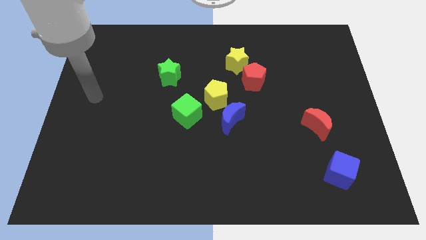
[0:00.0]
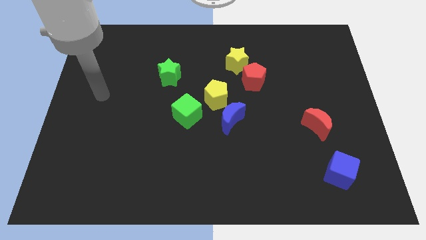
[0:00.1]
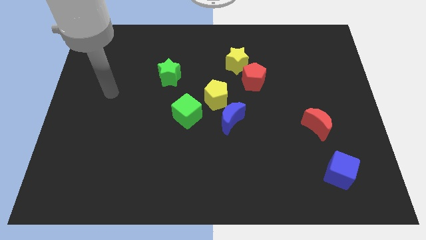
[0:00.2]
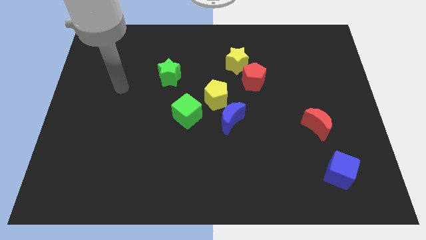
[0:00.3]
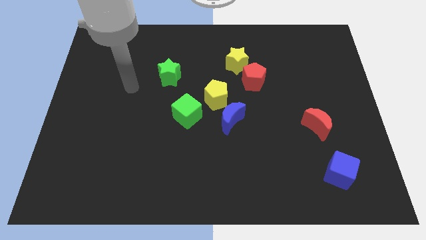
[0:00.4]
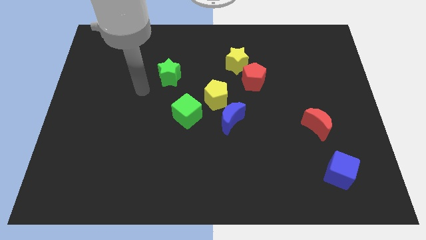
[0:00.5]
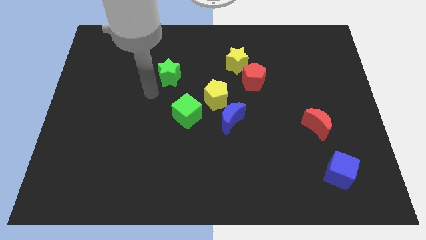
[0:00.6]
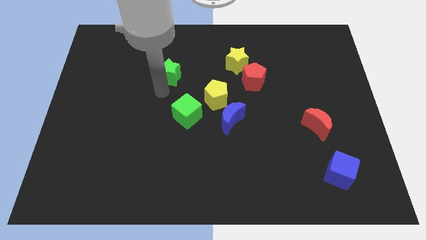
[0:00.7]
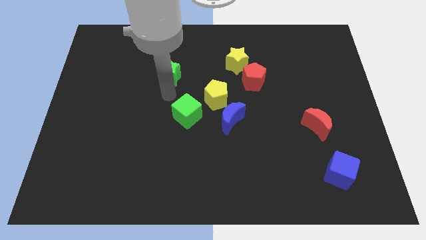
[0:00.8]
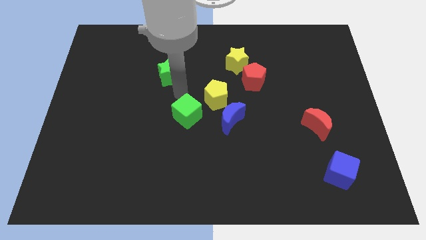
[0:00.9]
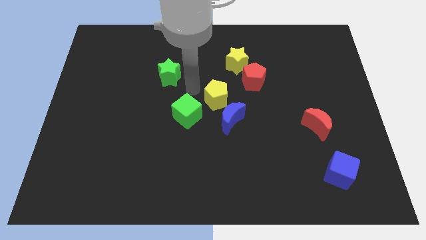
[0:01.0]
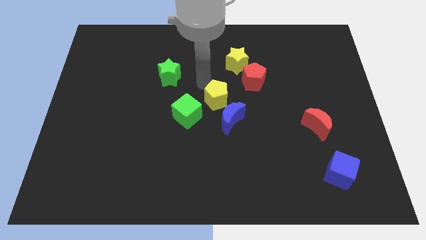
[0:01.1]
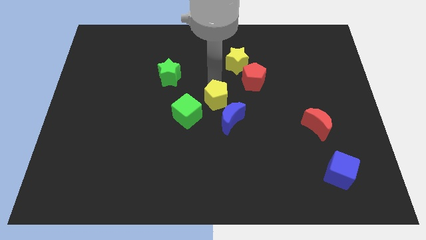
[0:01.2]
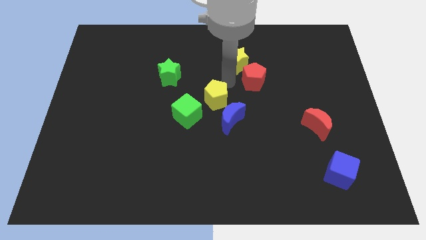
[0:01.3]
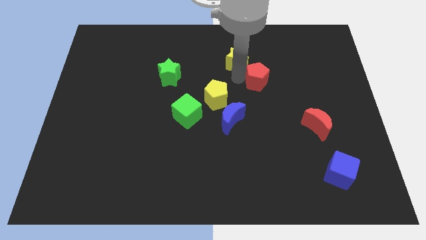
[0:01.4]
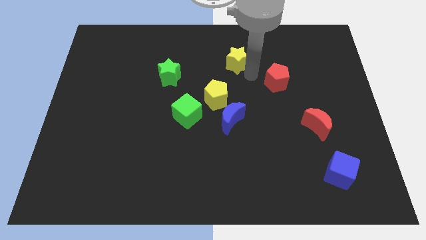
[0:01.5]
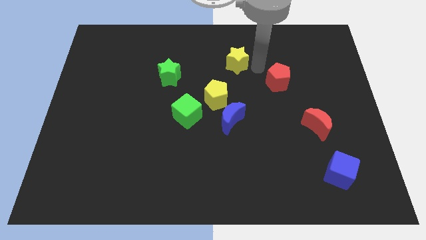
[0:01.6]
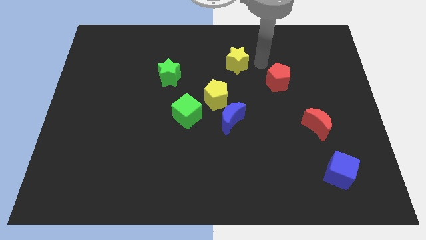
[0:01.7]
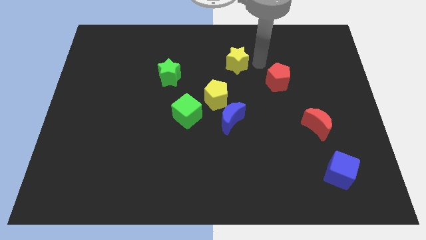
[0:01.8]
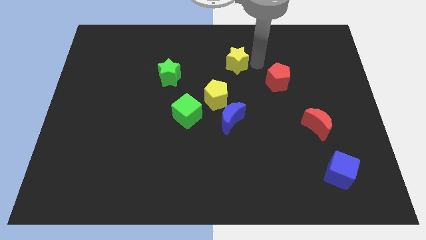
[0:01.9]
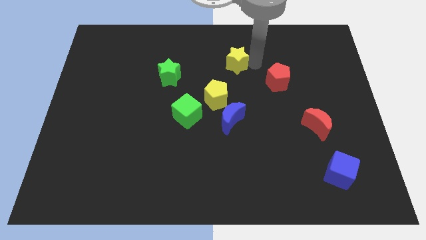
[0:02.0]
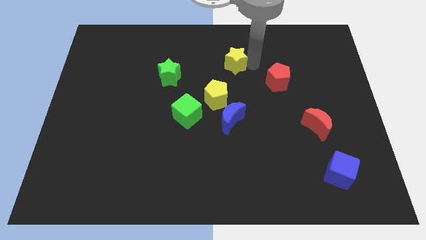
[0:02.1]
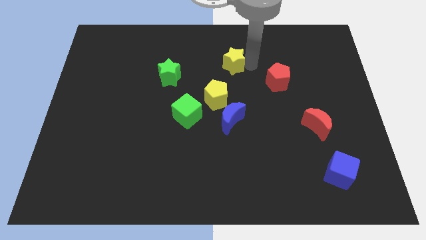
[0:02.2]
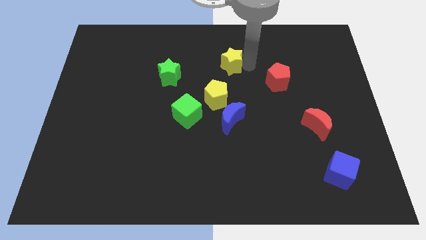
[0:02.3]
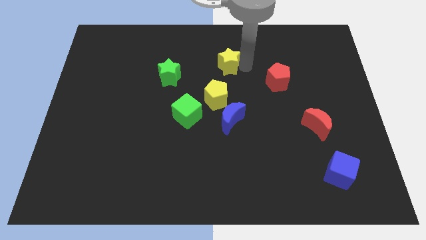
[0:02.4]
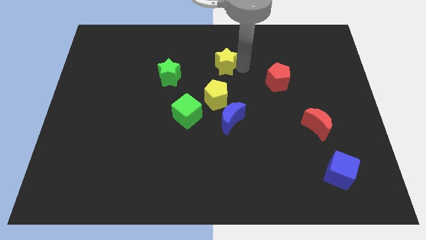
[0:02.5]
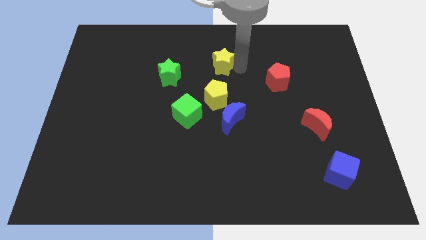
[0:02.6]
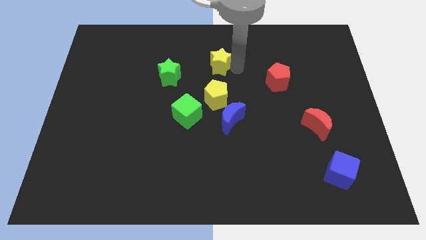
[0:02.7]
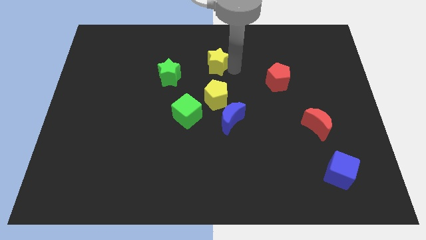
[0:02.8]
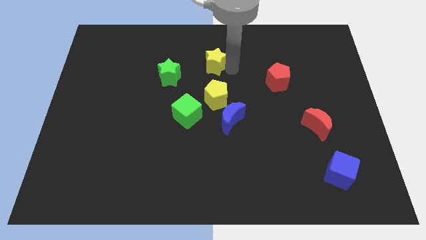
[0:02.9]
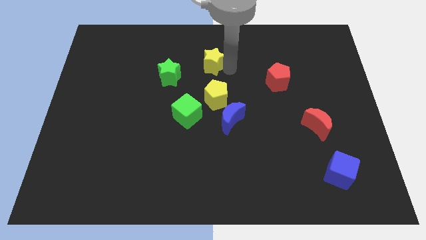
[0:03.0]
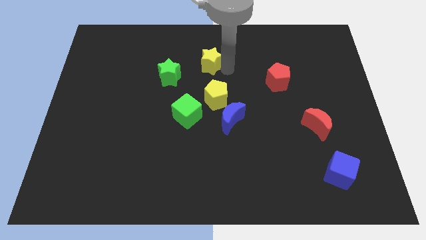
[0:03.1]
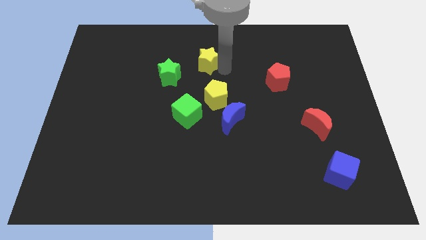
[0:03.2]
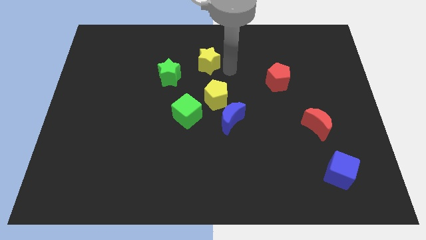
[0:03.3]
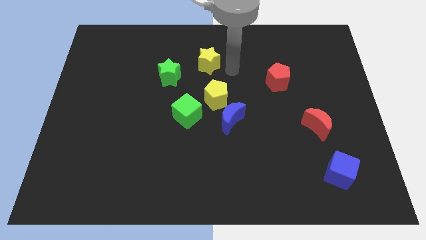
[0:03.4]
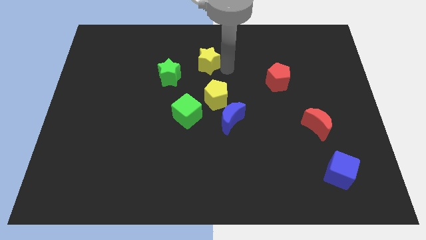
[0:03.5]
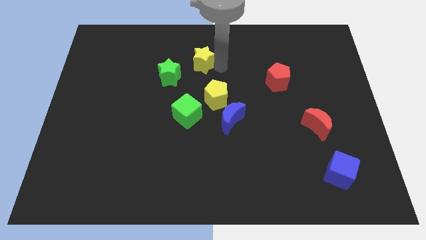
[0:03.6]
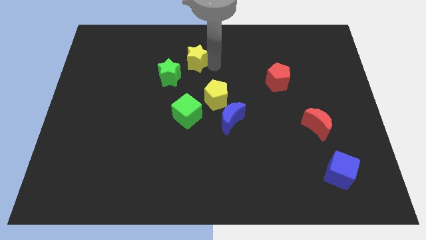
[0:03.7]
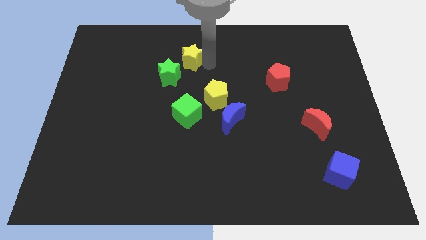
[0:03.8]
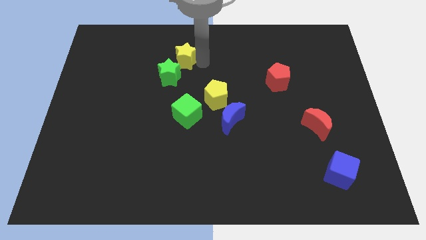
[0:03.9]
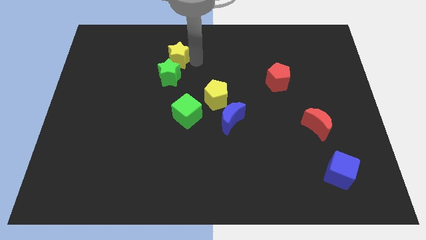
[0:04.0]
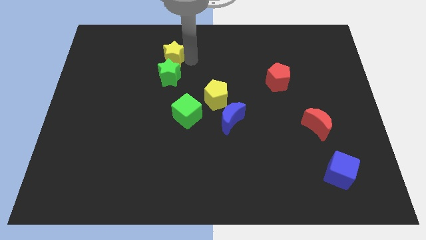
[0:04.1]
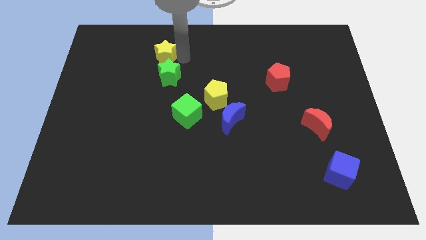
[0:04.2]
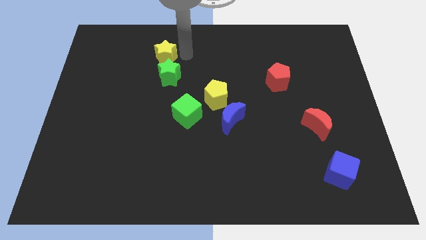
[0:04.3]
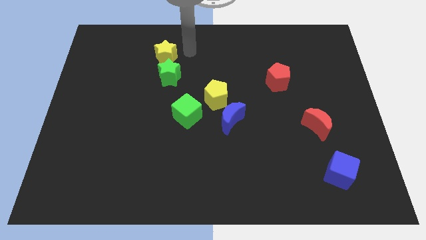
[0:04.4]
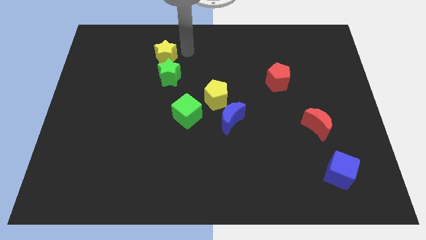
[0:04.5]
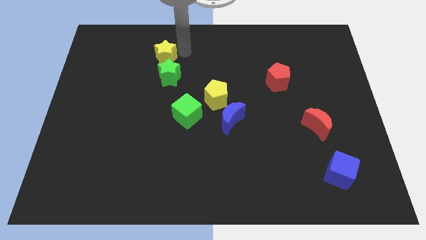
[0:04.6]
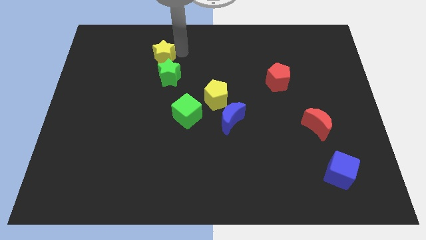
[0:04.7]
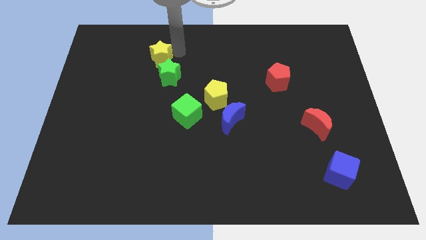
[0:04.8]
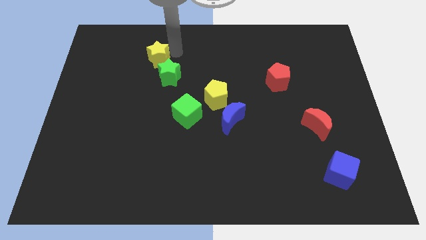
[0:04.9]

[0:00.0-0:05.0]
slide the yellow star left

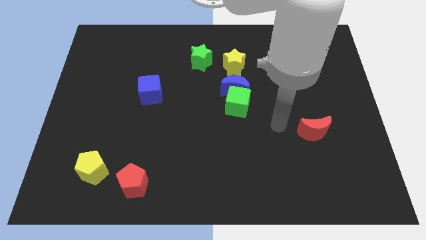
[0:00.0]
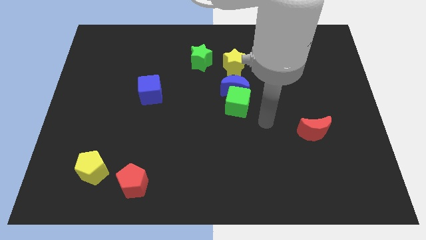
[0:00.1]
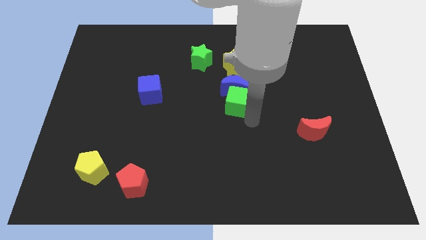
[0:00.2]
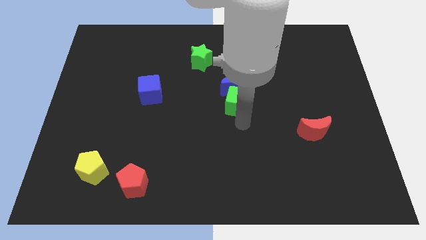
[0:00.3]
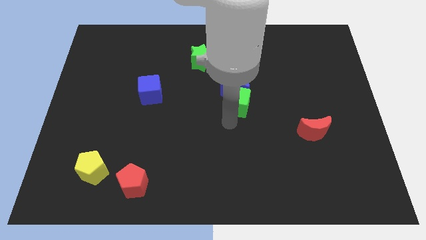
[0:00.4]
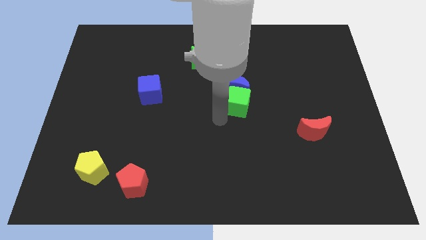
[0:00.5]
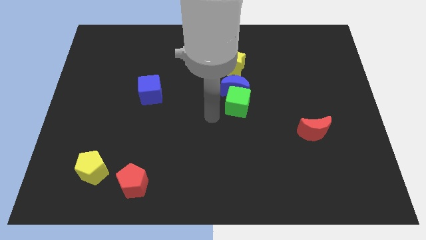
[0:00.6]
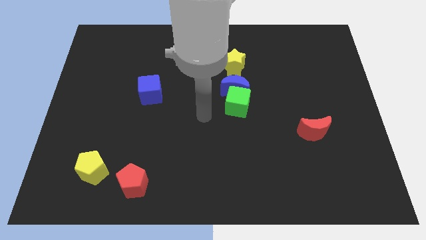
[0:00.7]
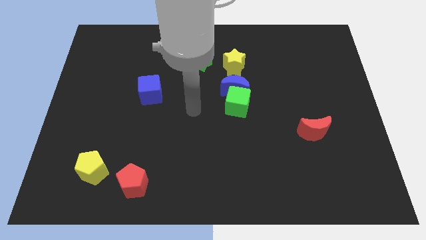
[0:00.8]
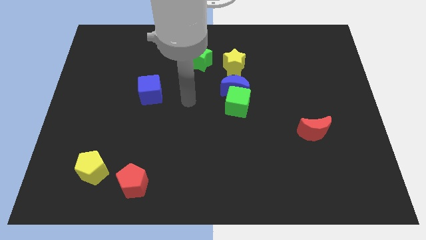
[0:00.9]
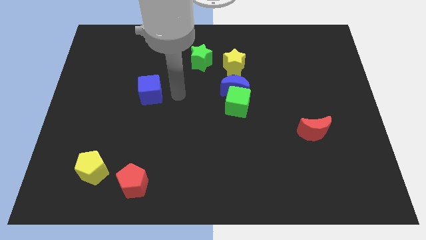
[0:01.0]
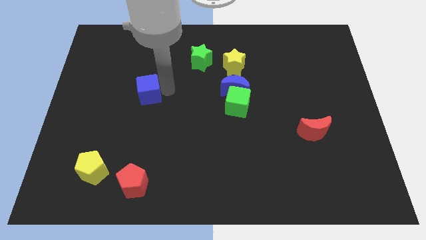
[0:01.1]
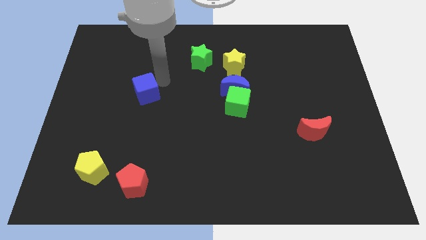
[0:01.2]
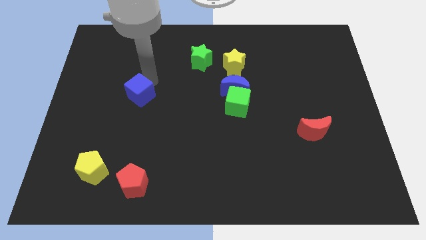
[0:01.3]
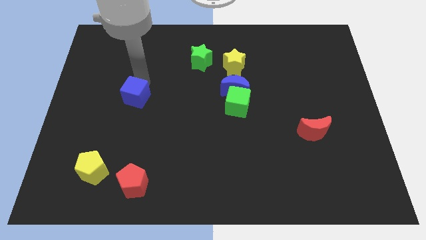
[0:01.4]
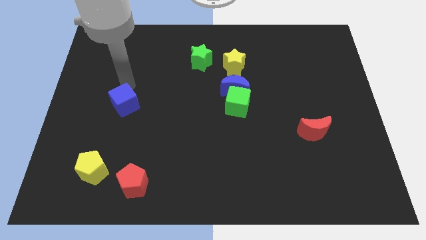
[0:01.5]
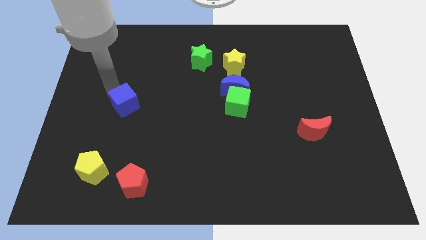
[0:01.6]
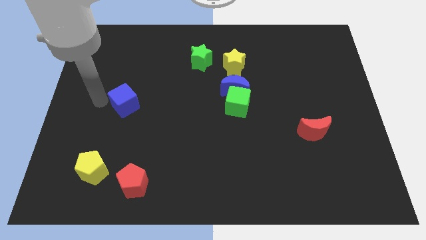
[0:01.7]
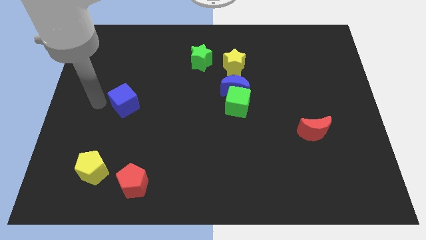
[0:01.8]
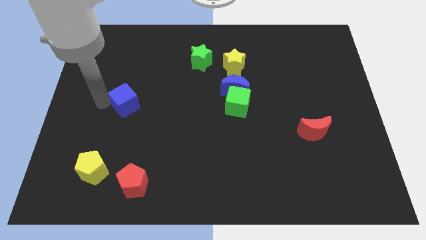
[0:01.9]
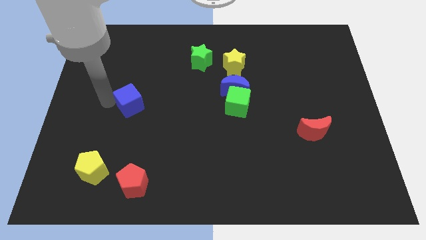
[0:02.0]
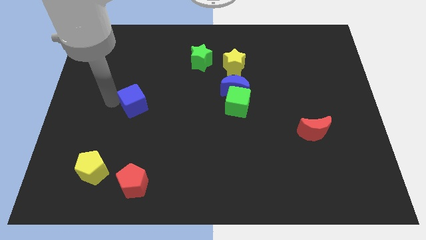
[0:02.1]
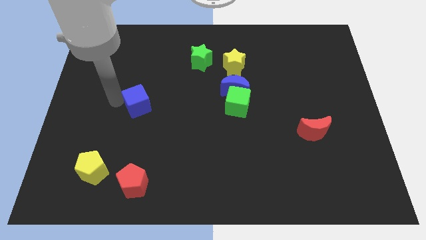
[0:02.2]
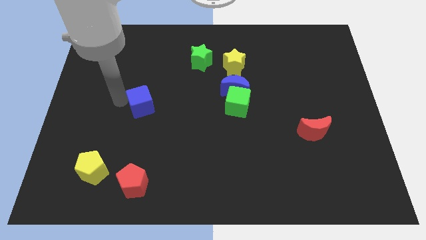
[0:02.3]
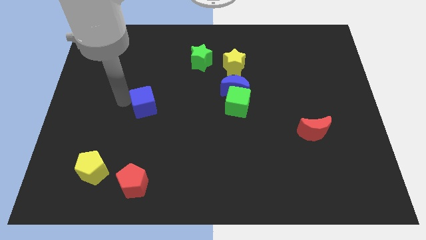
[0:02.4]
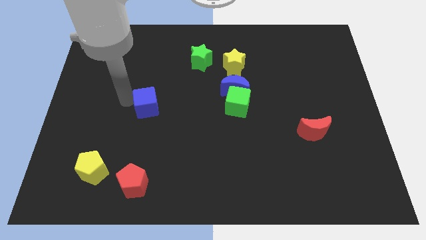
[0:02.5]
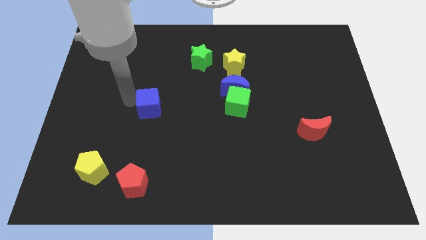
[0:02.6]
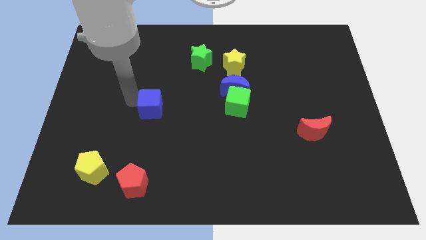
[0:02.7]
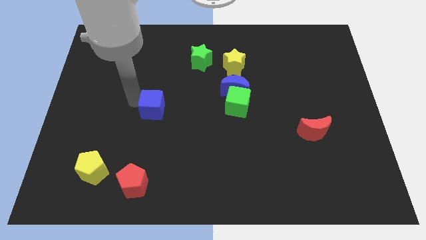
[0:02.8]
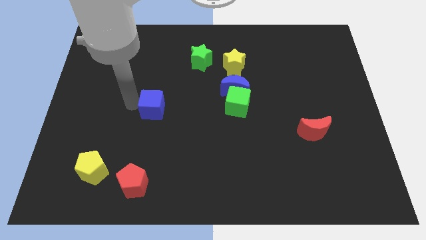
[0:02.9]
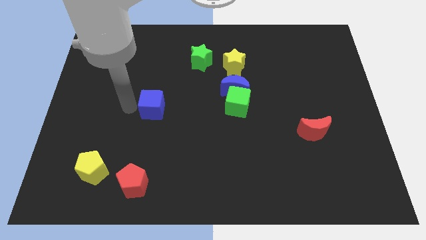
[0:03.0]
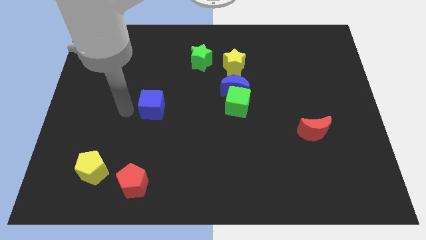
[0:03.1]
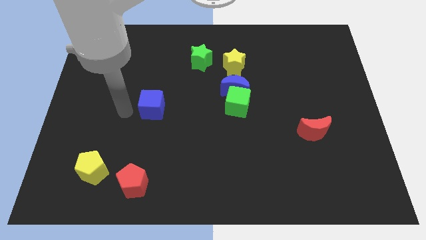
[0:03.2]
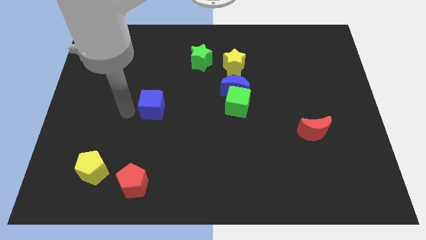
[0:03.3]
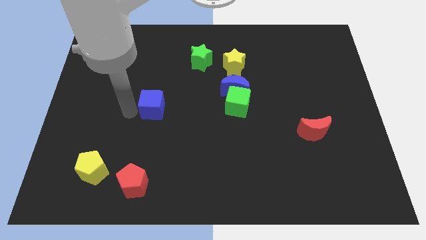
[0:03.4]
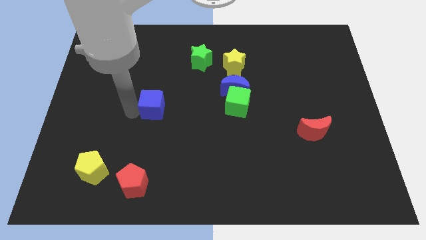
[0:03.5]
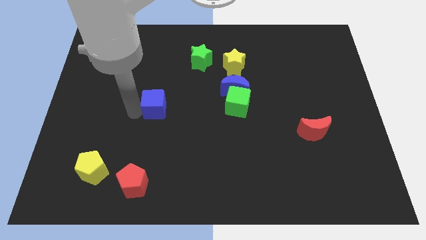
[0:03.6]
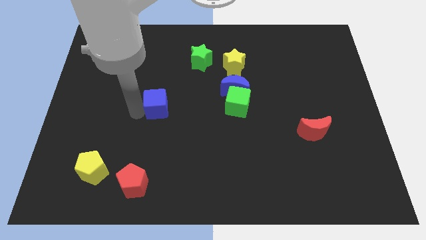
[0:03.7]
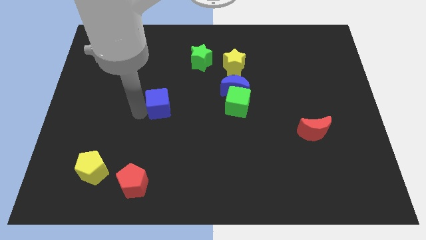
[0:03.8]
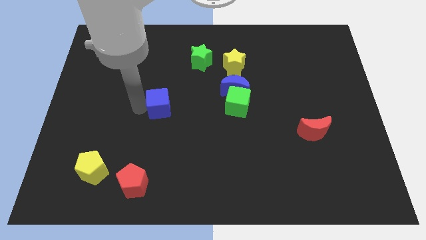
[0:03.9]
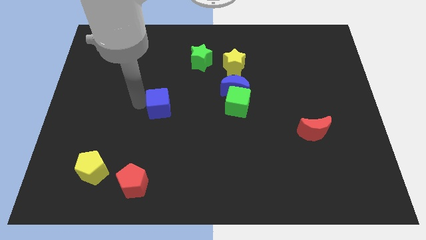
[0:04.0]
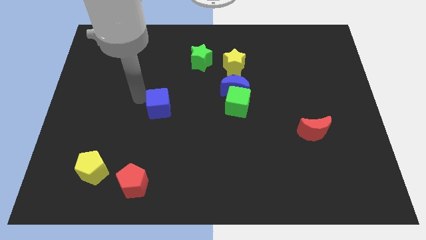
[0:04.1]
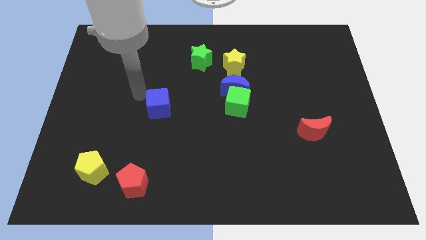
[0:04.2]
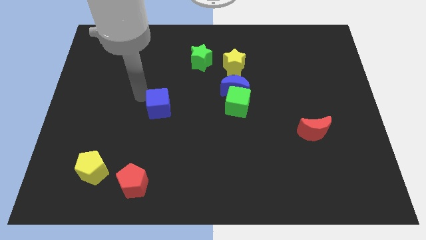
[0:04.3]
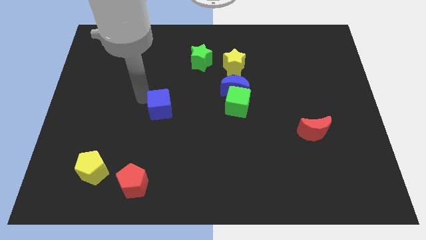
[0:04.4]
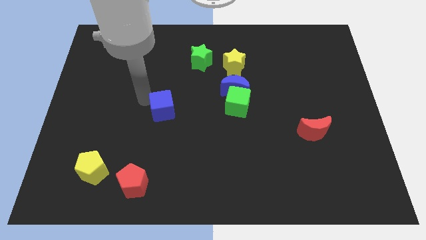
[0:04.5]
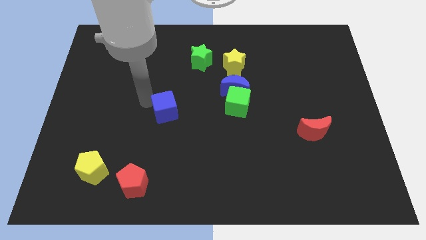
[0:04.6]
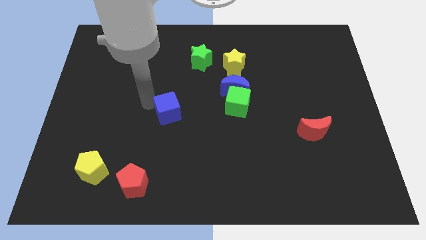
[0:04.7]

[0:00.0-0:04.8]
slide the blue cube downwards and right a little bit
